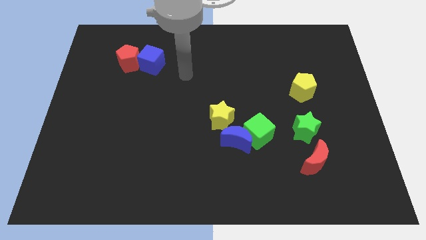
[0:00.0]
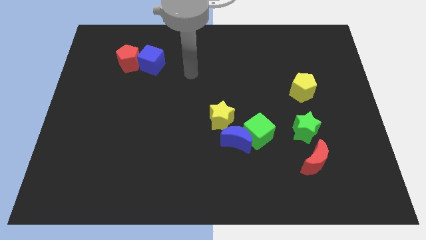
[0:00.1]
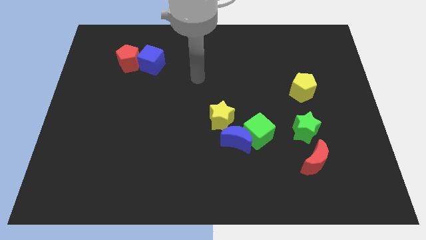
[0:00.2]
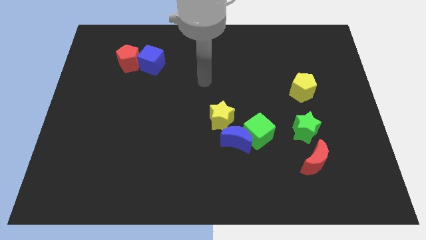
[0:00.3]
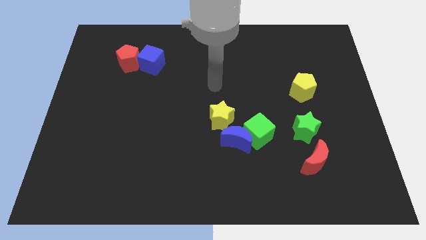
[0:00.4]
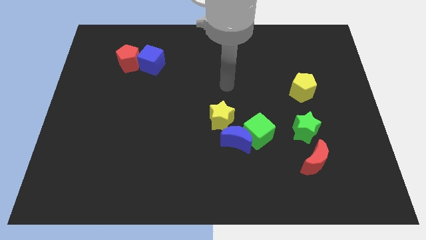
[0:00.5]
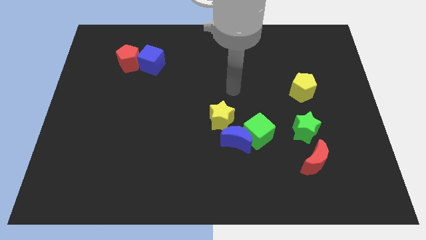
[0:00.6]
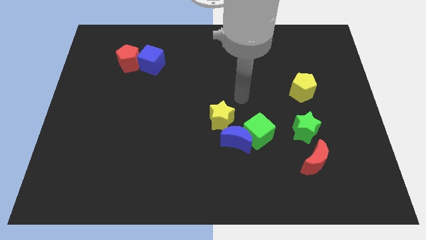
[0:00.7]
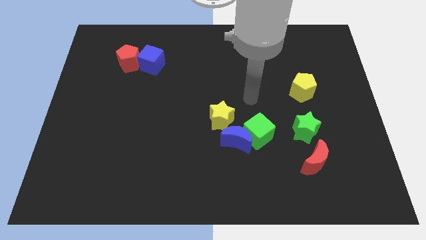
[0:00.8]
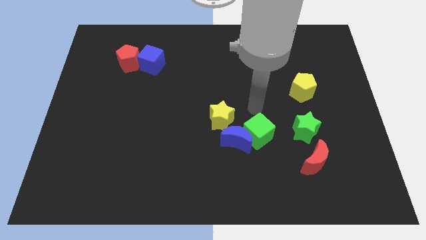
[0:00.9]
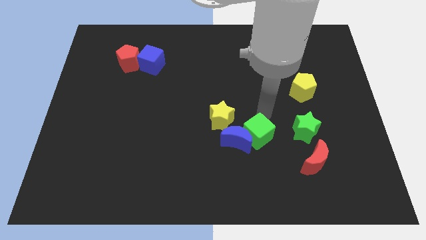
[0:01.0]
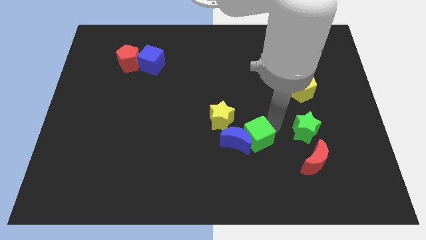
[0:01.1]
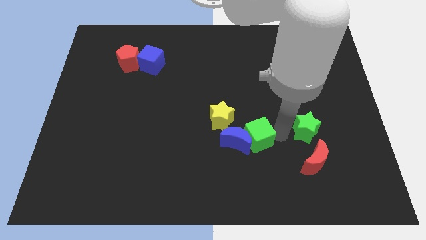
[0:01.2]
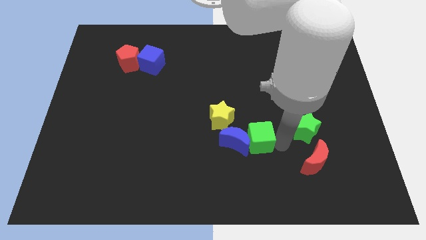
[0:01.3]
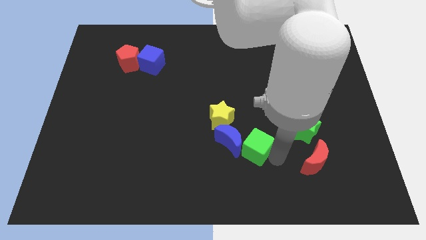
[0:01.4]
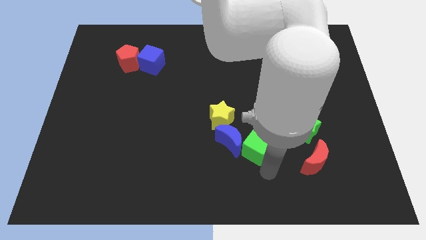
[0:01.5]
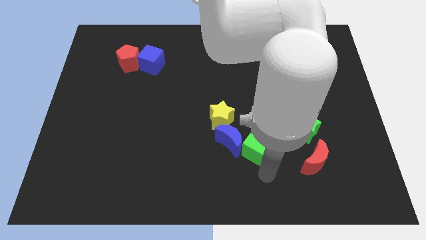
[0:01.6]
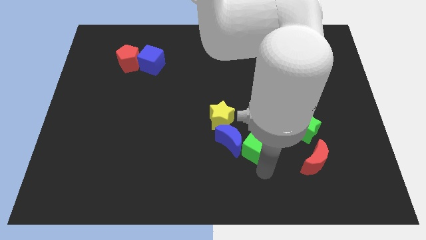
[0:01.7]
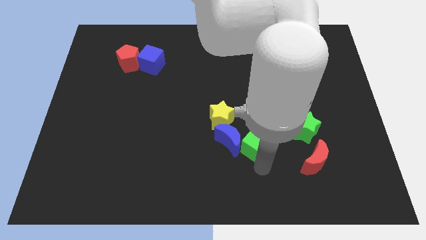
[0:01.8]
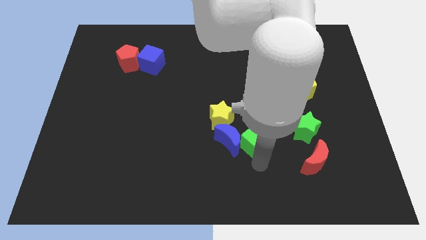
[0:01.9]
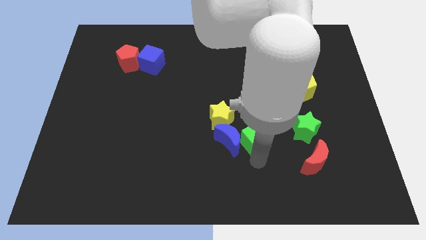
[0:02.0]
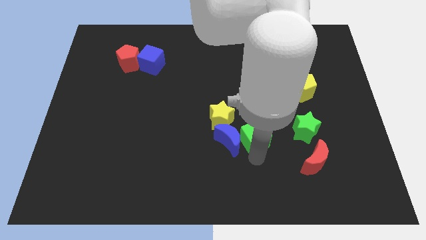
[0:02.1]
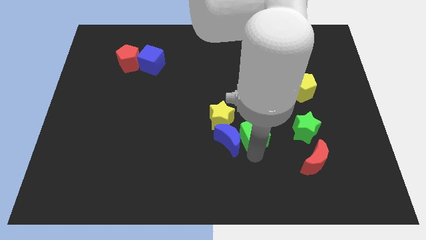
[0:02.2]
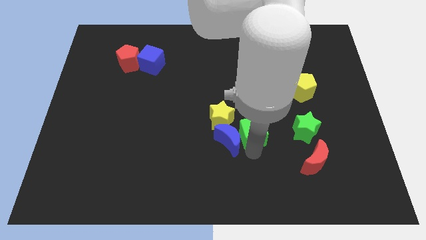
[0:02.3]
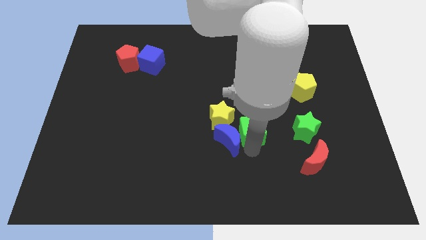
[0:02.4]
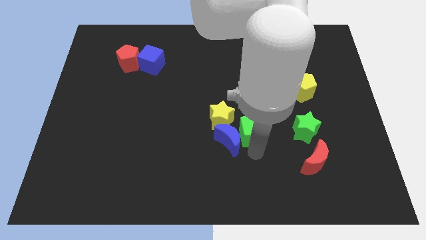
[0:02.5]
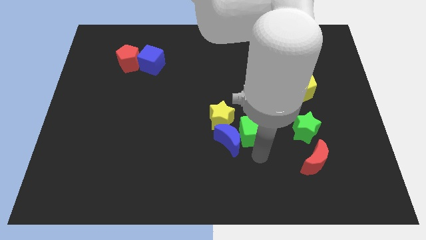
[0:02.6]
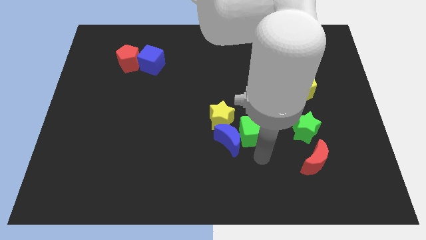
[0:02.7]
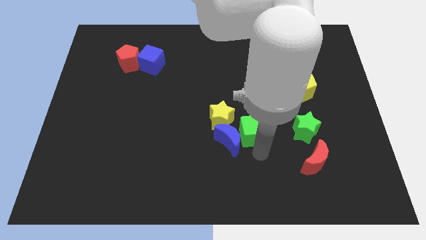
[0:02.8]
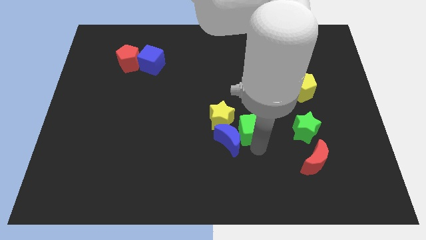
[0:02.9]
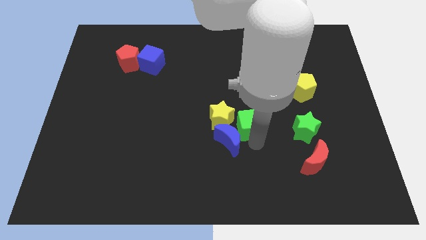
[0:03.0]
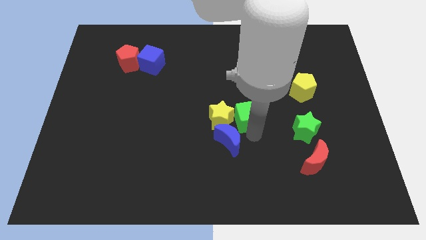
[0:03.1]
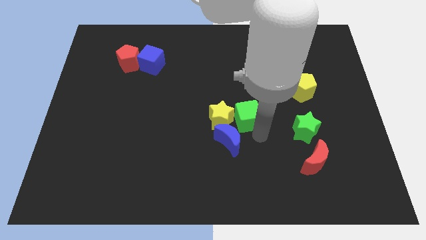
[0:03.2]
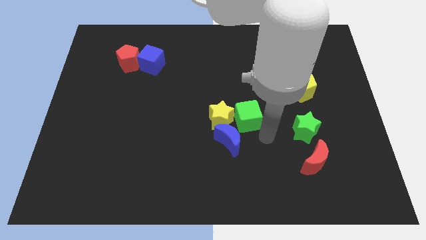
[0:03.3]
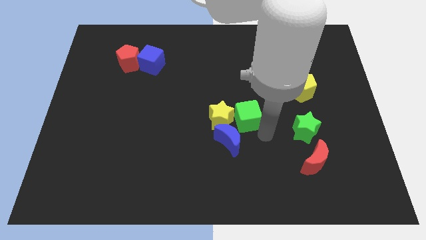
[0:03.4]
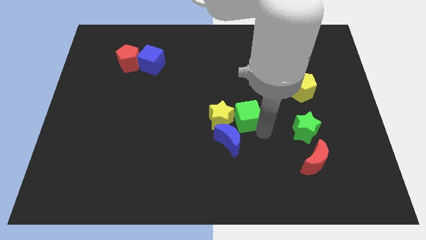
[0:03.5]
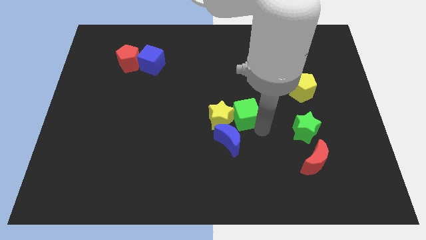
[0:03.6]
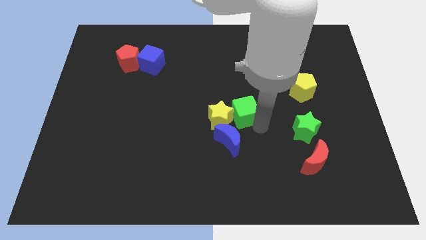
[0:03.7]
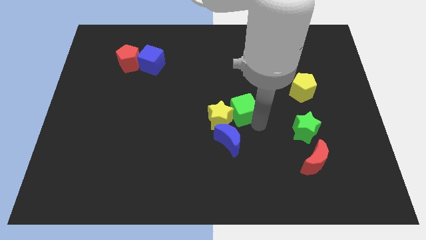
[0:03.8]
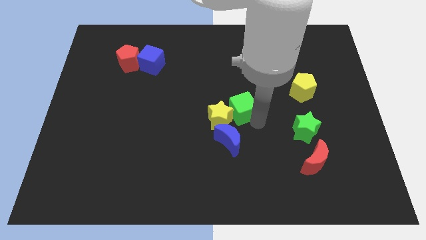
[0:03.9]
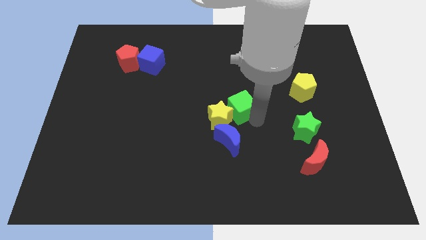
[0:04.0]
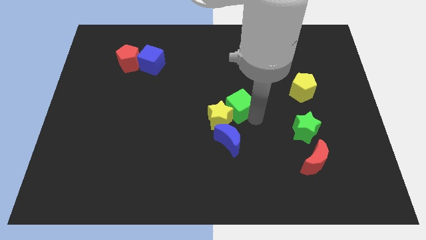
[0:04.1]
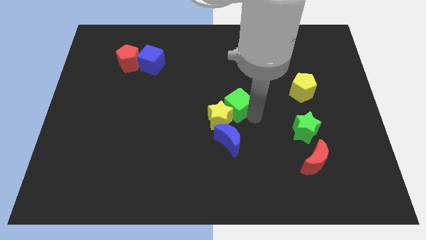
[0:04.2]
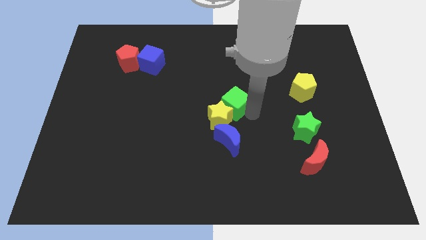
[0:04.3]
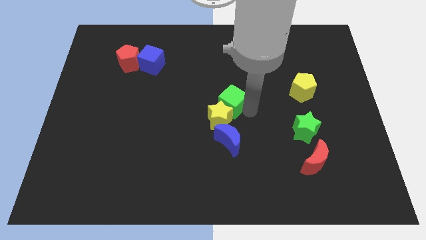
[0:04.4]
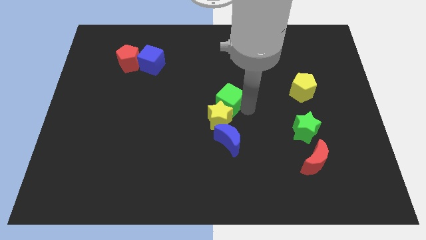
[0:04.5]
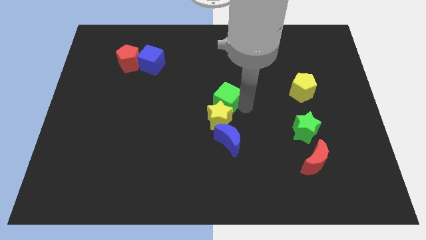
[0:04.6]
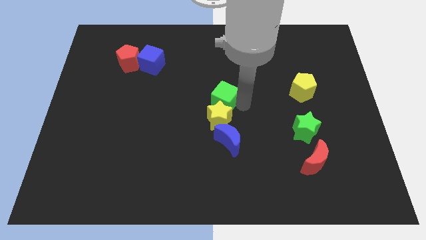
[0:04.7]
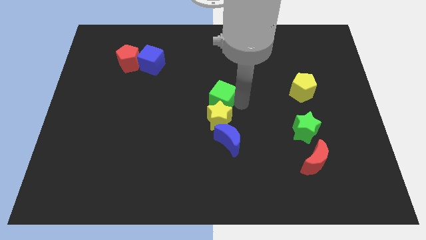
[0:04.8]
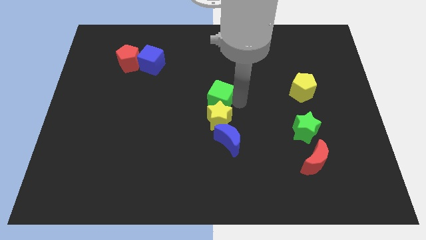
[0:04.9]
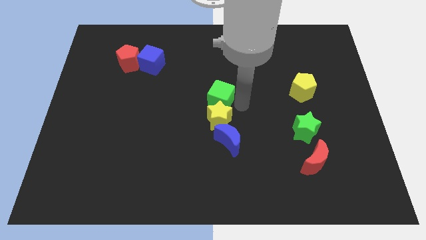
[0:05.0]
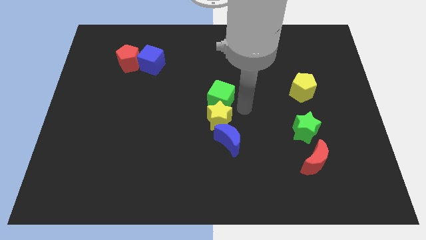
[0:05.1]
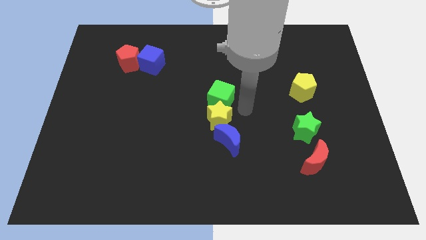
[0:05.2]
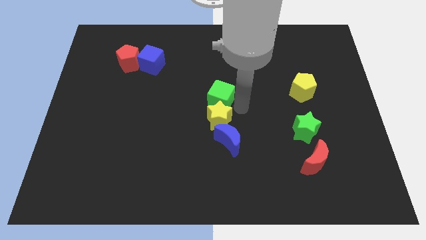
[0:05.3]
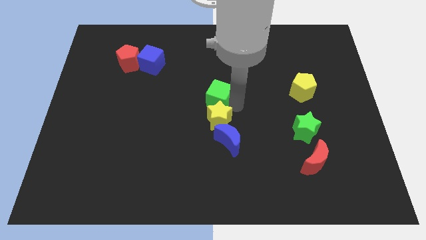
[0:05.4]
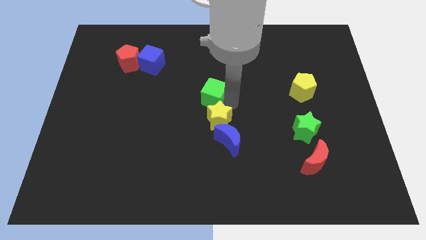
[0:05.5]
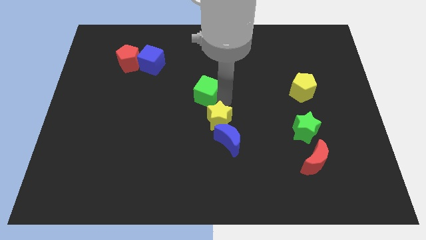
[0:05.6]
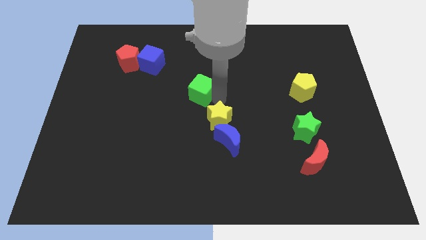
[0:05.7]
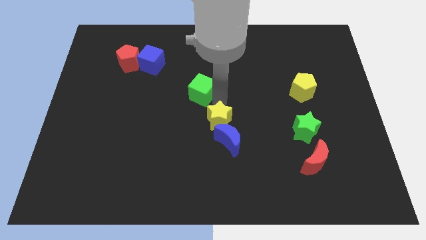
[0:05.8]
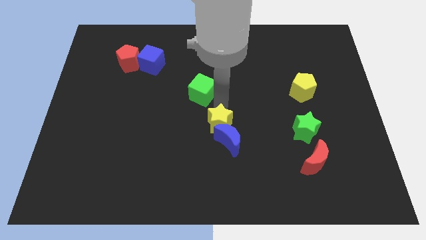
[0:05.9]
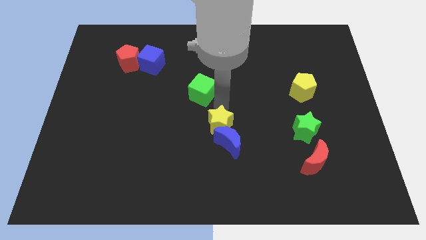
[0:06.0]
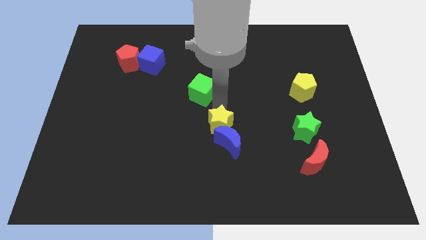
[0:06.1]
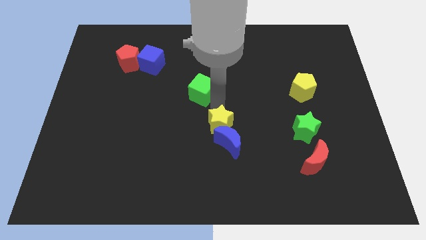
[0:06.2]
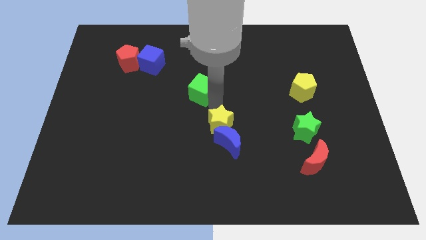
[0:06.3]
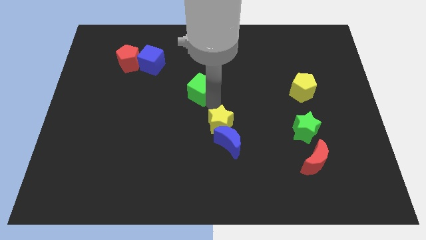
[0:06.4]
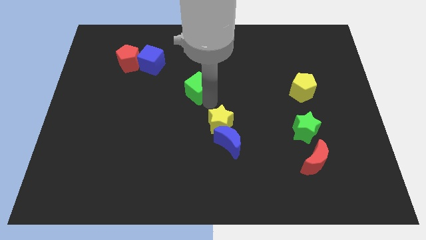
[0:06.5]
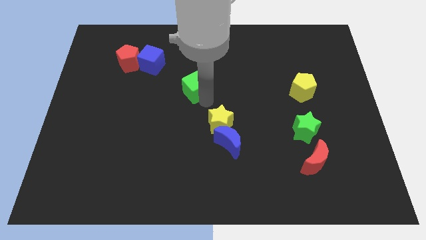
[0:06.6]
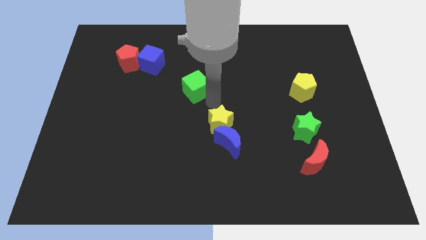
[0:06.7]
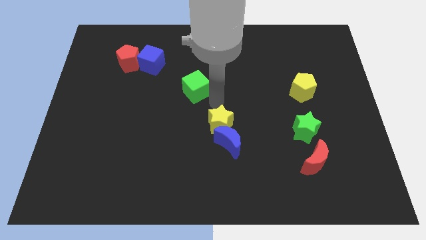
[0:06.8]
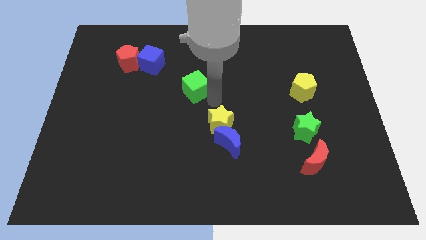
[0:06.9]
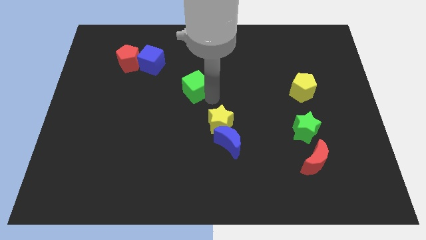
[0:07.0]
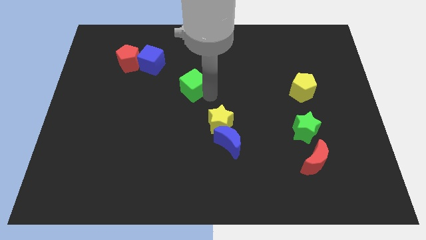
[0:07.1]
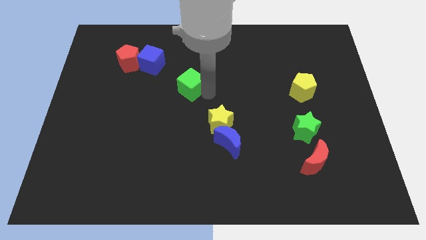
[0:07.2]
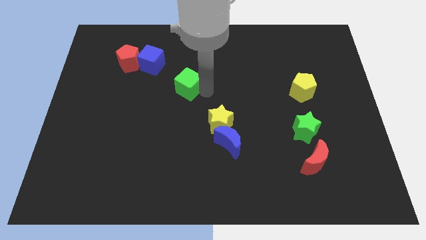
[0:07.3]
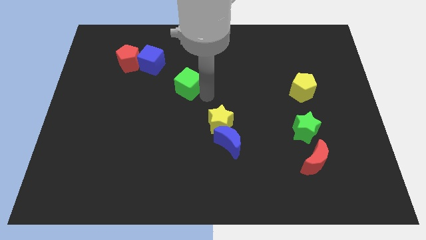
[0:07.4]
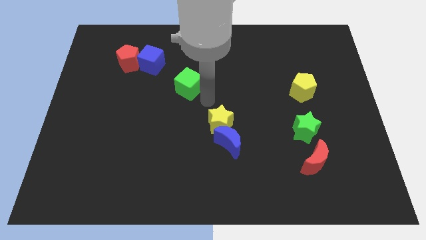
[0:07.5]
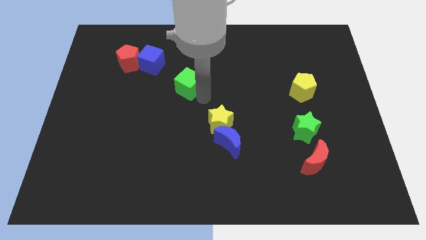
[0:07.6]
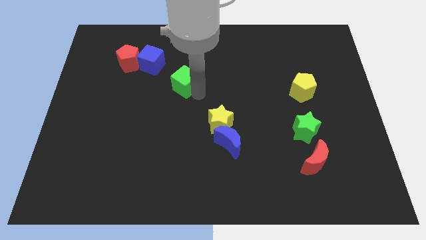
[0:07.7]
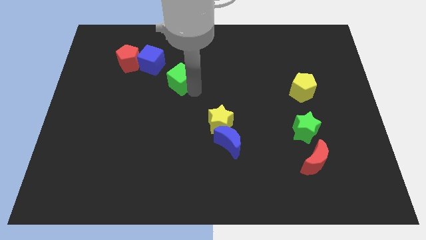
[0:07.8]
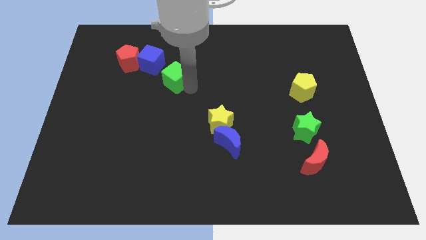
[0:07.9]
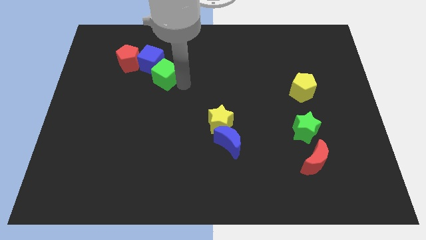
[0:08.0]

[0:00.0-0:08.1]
put the green cube towards the blue cube
